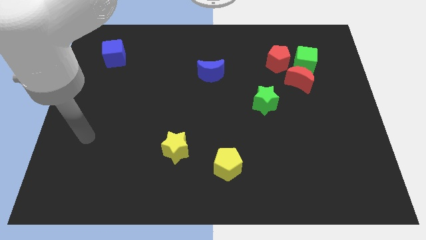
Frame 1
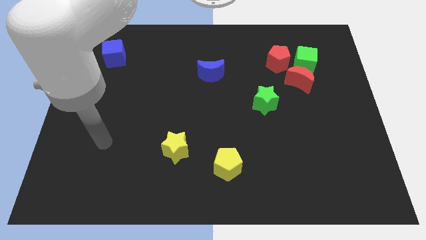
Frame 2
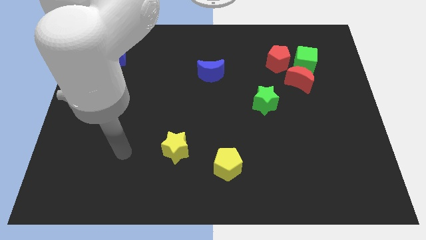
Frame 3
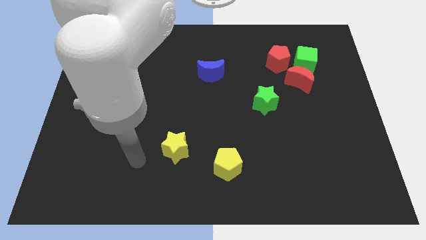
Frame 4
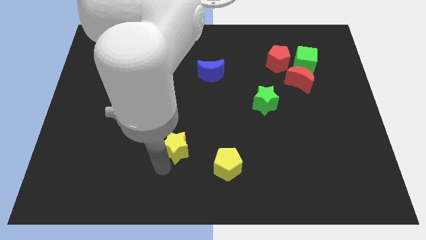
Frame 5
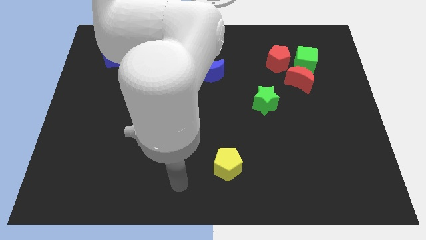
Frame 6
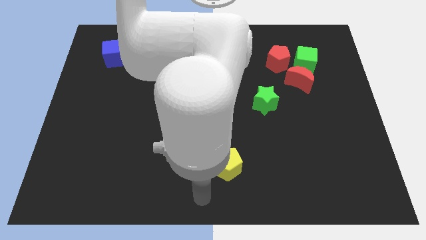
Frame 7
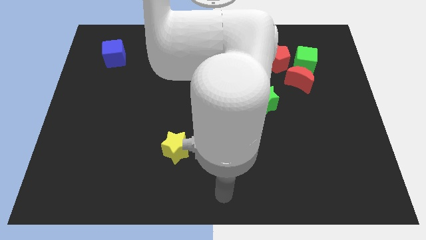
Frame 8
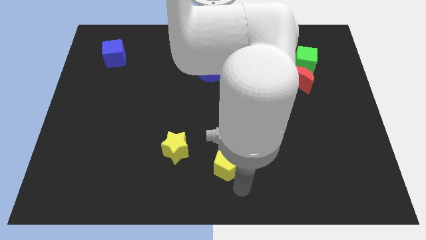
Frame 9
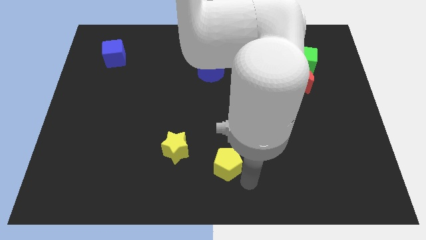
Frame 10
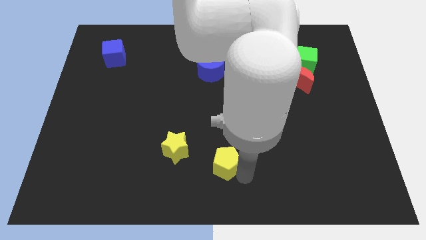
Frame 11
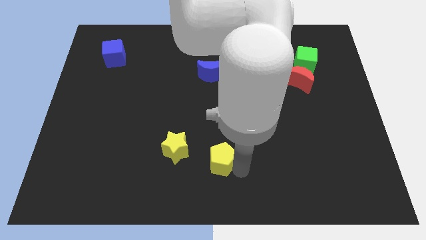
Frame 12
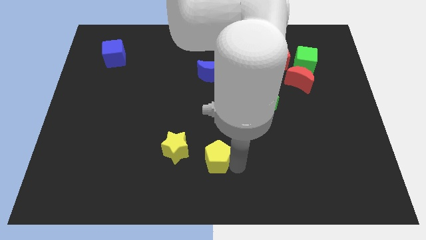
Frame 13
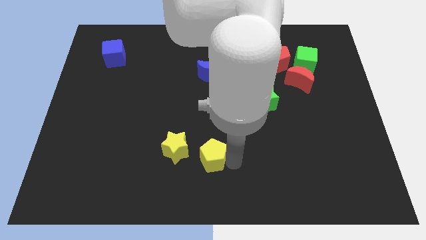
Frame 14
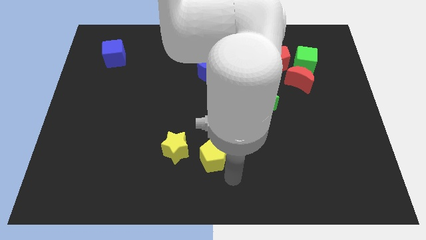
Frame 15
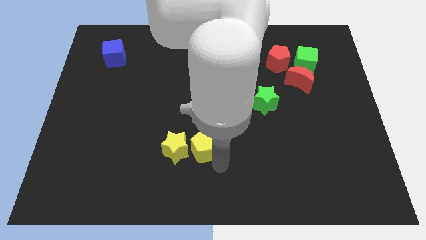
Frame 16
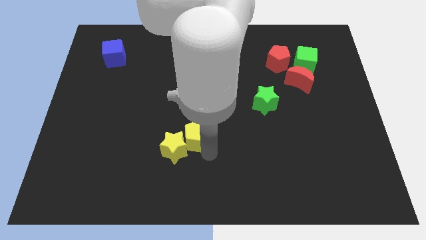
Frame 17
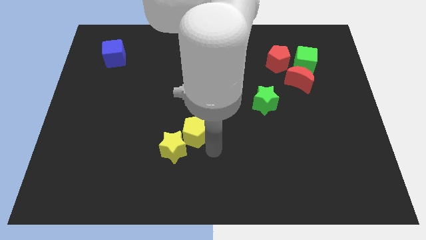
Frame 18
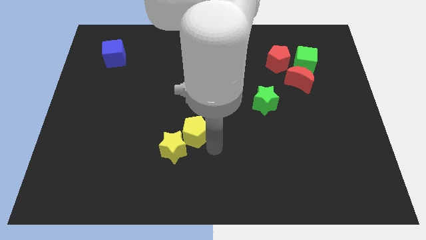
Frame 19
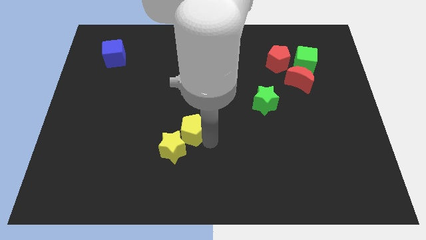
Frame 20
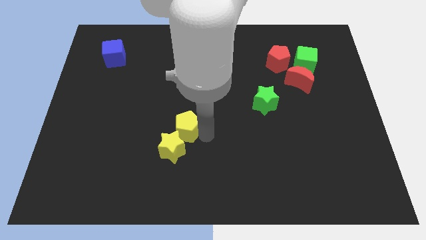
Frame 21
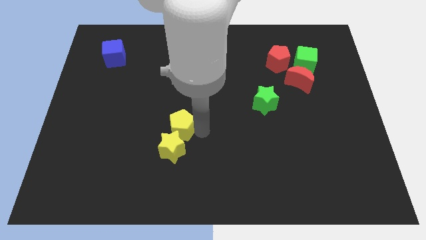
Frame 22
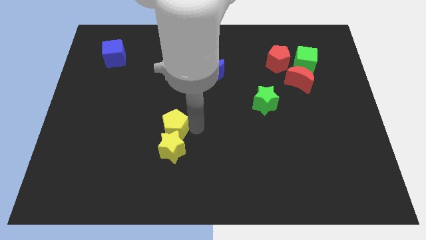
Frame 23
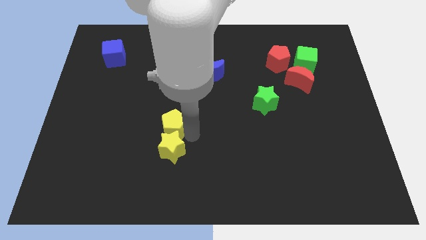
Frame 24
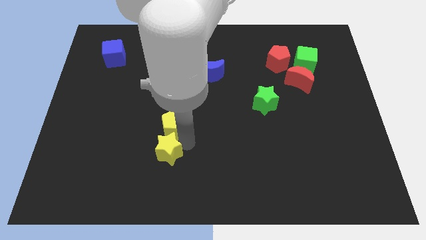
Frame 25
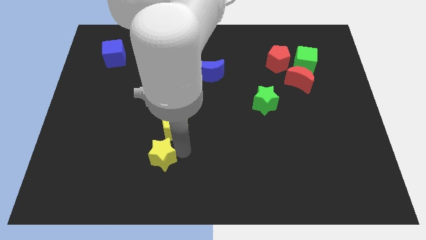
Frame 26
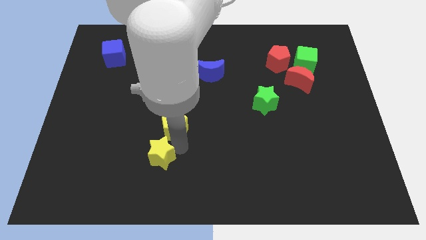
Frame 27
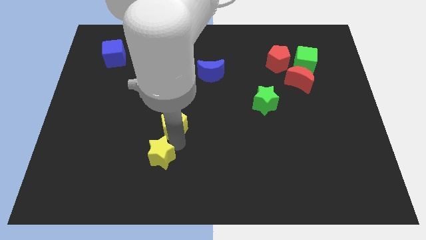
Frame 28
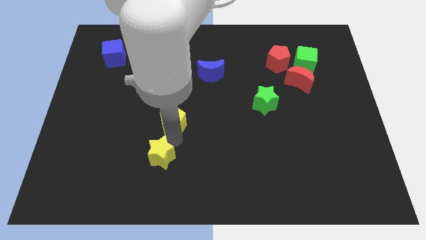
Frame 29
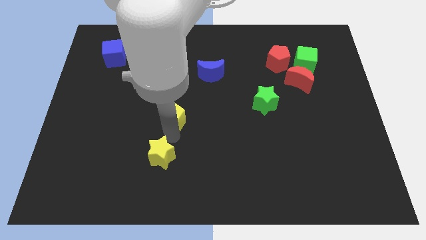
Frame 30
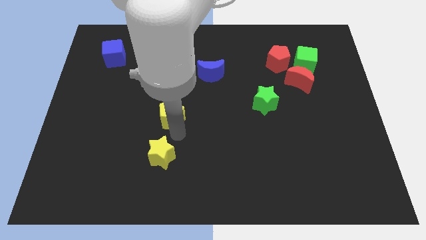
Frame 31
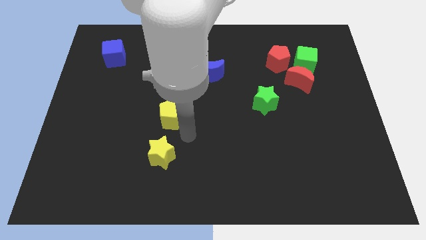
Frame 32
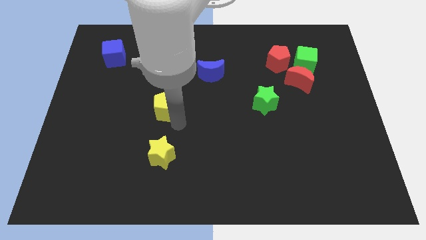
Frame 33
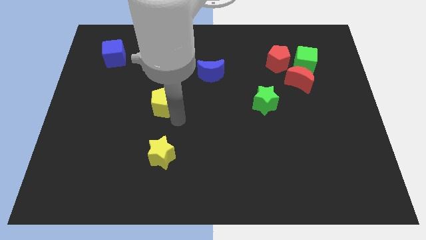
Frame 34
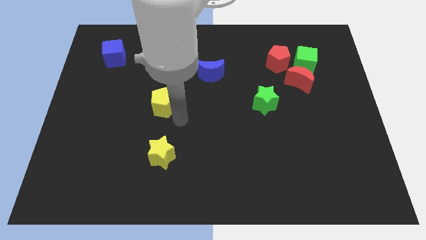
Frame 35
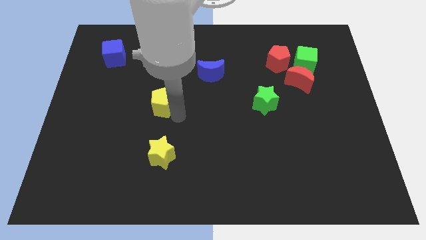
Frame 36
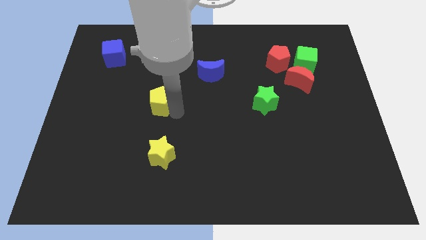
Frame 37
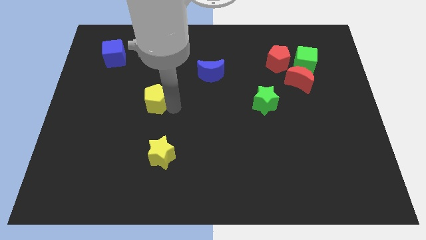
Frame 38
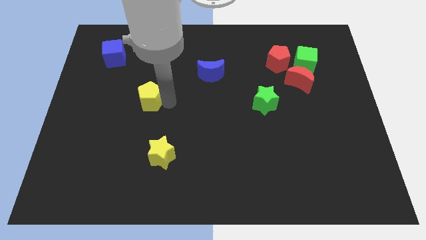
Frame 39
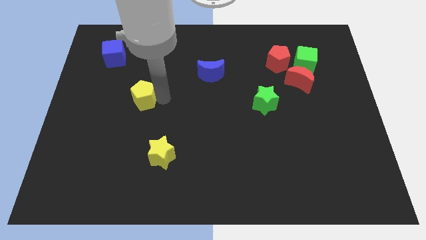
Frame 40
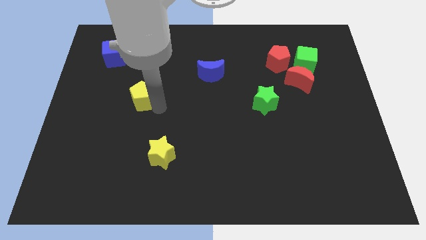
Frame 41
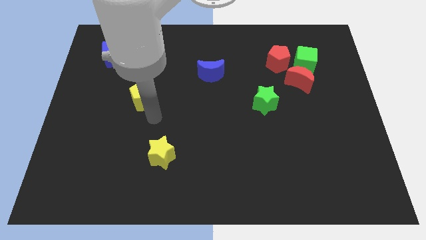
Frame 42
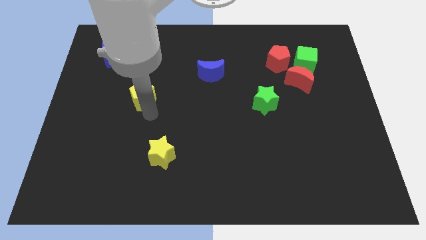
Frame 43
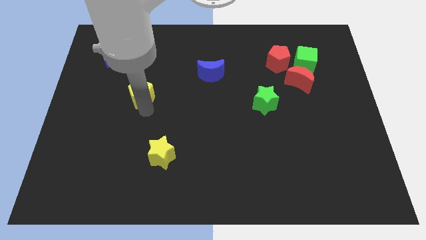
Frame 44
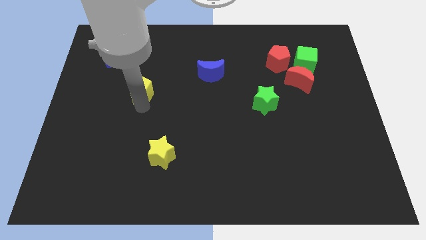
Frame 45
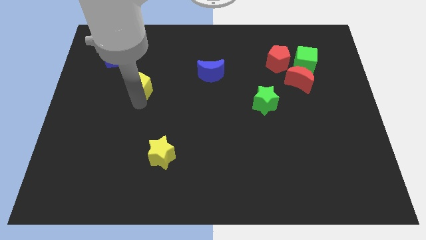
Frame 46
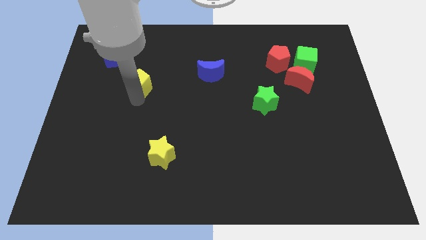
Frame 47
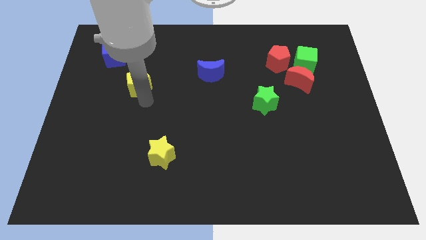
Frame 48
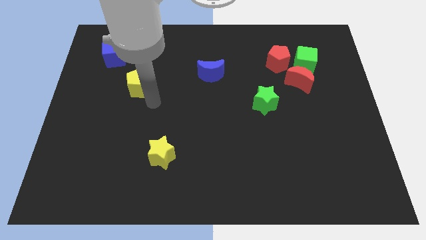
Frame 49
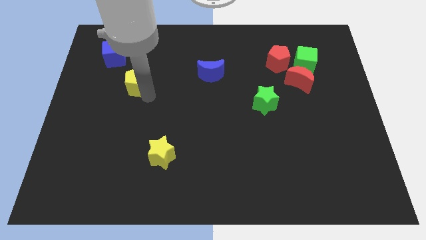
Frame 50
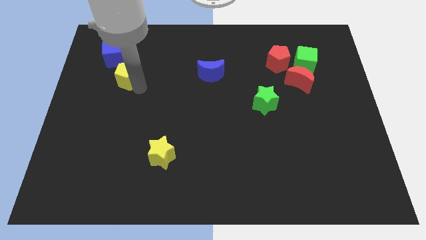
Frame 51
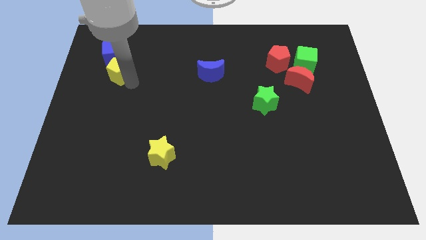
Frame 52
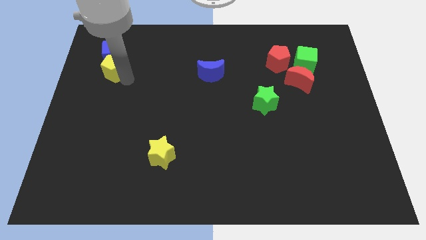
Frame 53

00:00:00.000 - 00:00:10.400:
move the yellow pentagon next to the blue cube

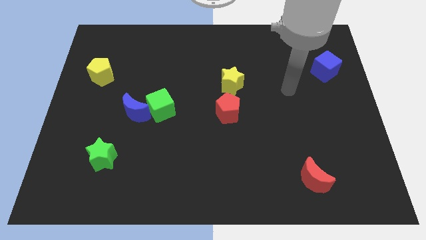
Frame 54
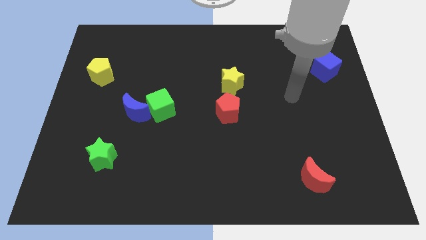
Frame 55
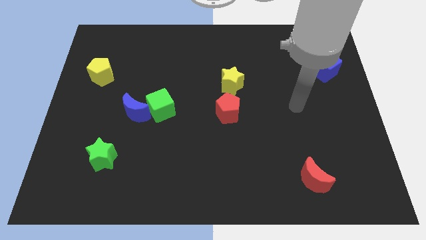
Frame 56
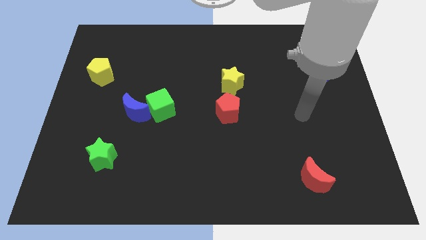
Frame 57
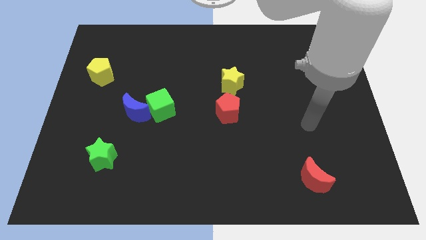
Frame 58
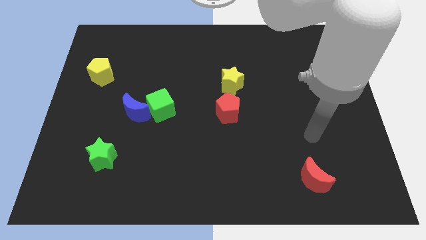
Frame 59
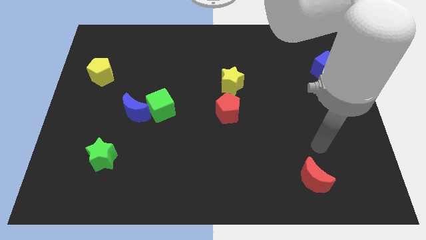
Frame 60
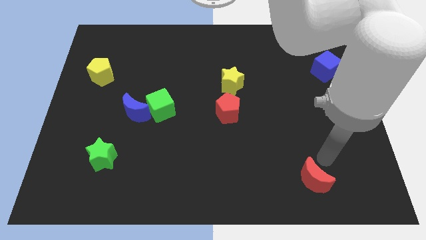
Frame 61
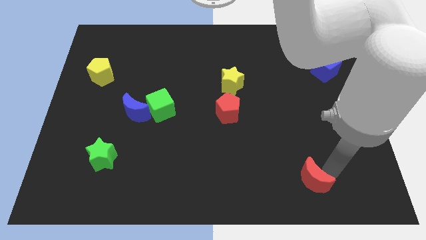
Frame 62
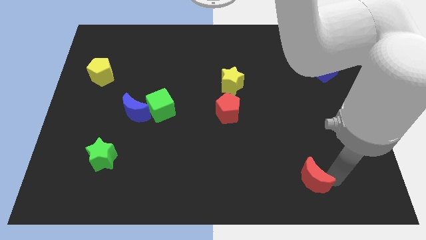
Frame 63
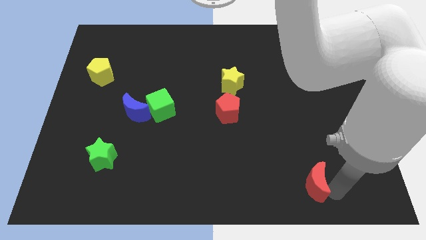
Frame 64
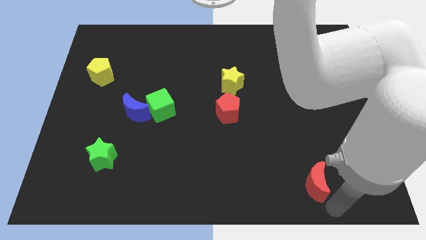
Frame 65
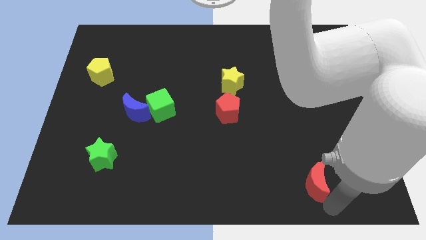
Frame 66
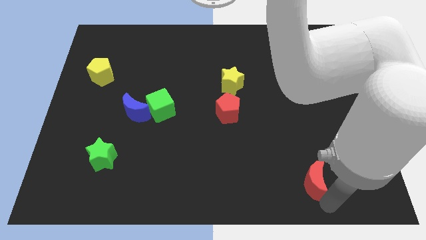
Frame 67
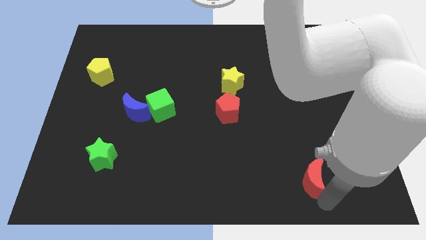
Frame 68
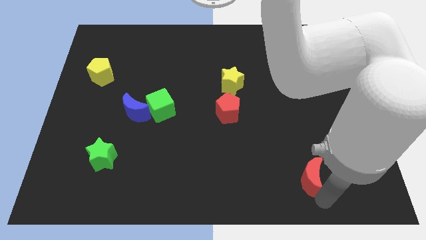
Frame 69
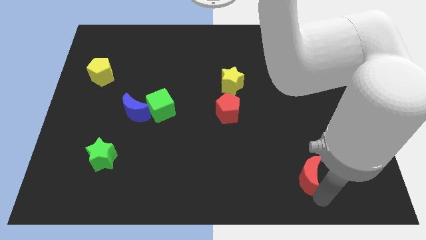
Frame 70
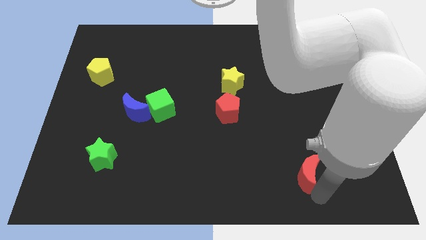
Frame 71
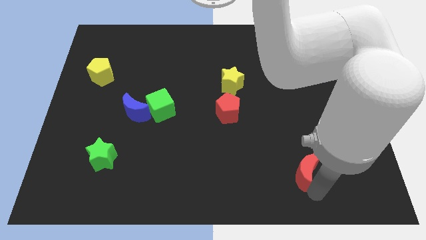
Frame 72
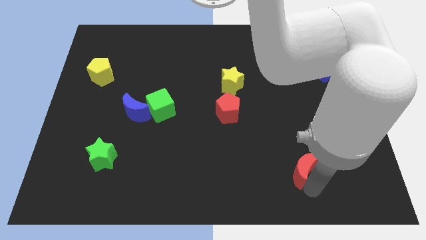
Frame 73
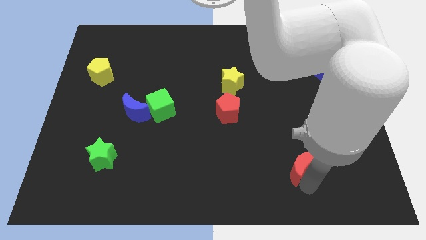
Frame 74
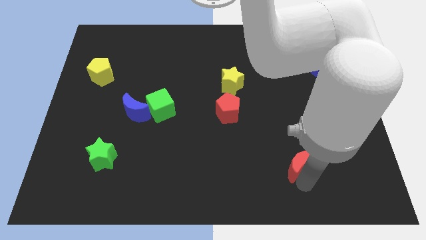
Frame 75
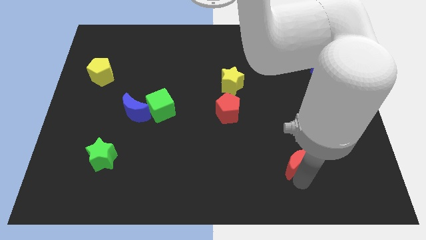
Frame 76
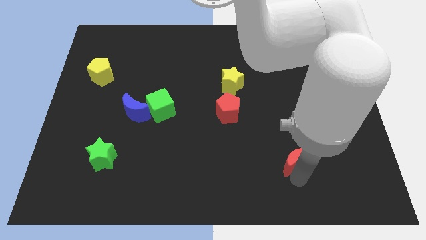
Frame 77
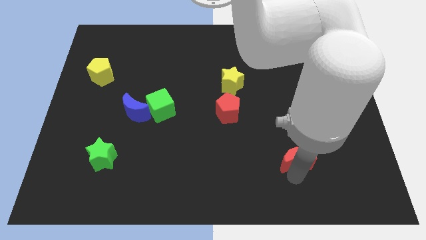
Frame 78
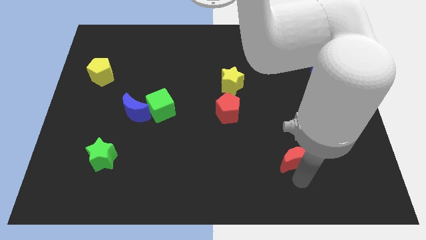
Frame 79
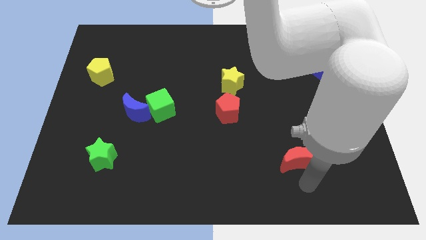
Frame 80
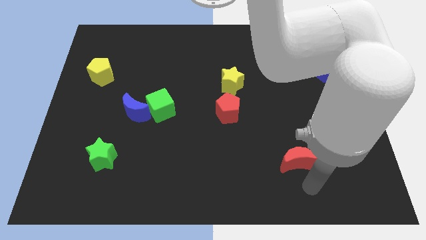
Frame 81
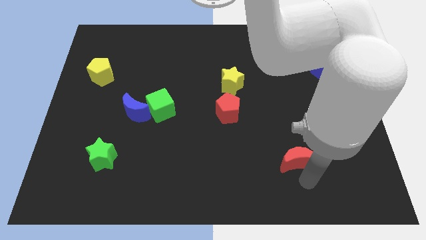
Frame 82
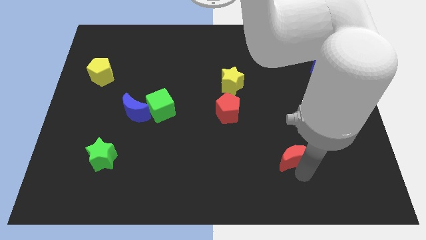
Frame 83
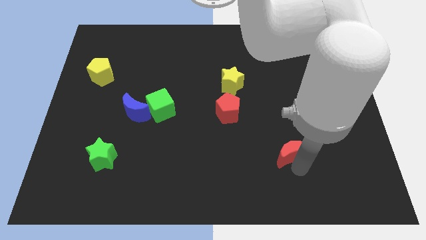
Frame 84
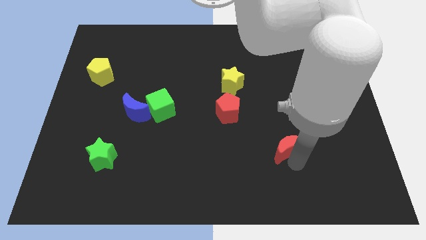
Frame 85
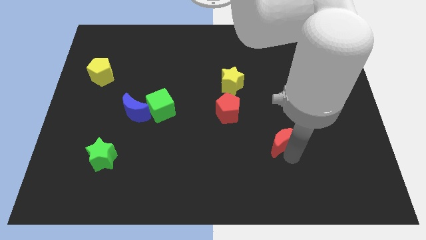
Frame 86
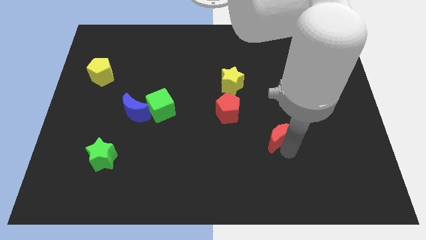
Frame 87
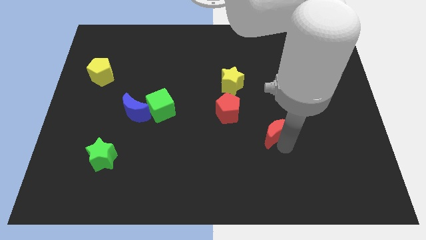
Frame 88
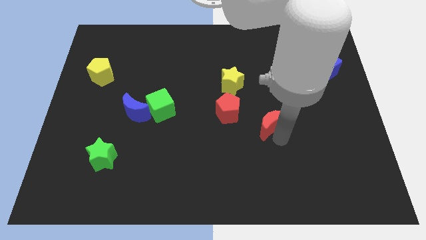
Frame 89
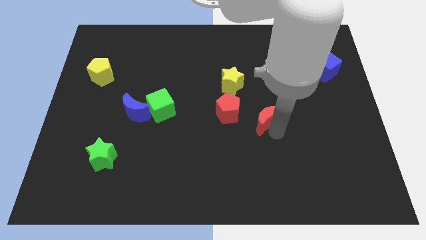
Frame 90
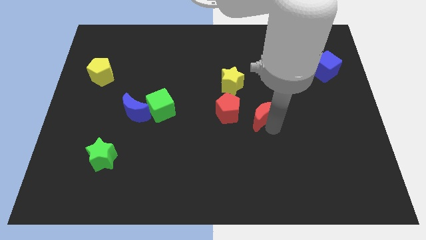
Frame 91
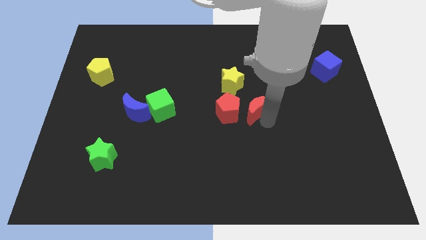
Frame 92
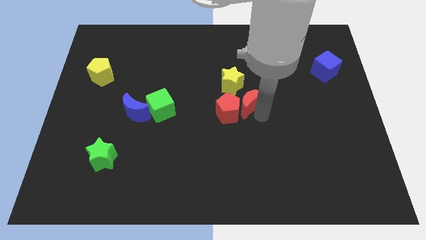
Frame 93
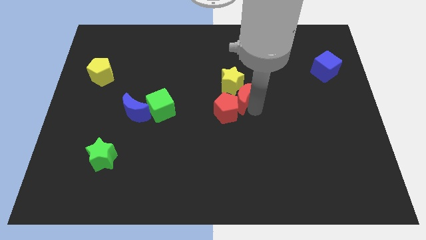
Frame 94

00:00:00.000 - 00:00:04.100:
push the red moon close to the yellow star
